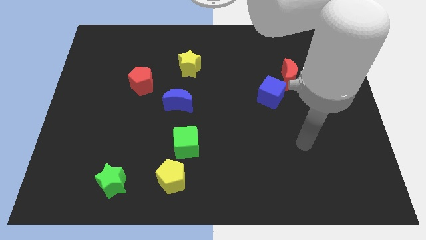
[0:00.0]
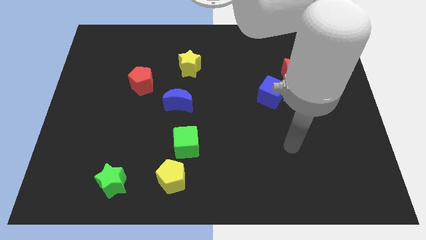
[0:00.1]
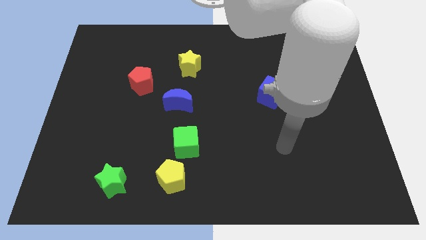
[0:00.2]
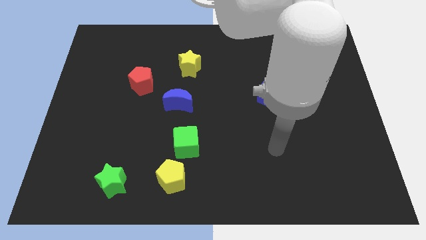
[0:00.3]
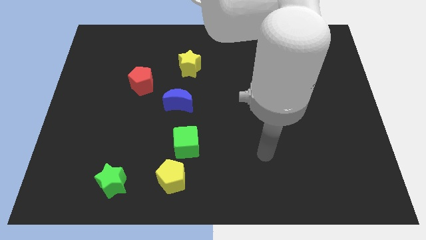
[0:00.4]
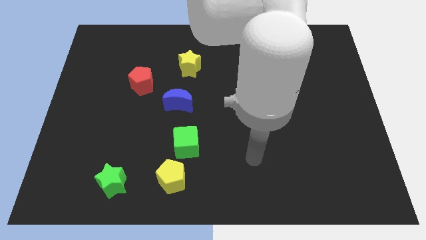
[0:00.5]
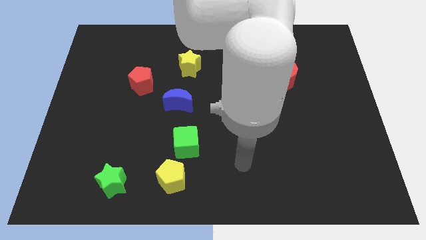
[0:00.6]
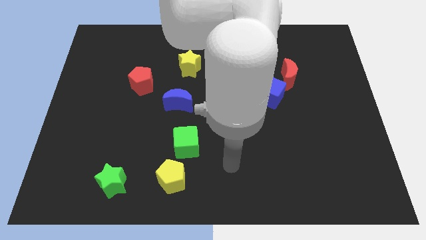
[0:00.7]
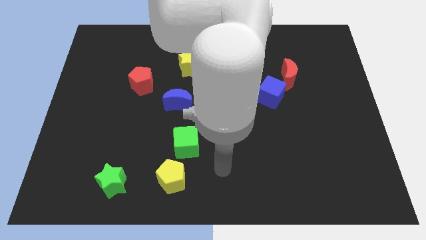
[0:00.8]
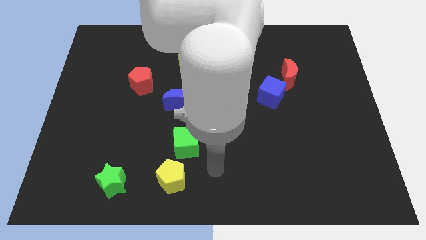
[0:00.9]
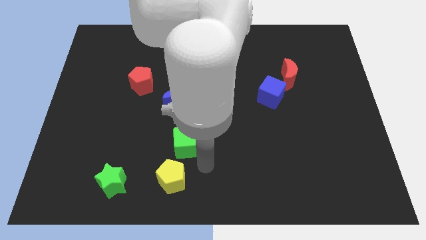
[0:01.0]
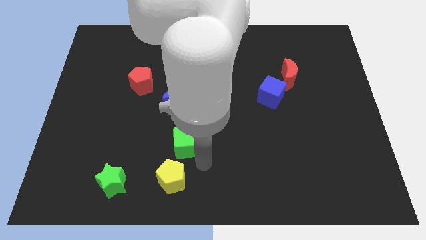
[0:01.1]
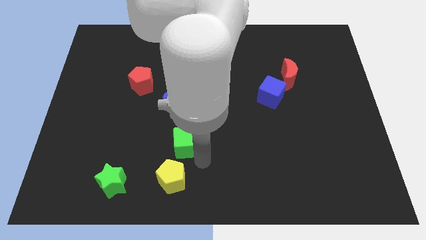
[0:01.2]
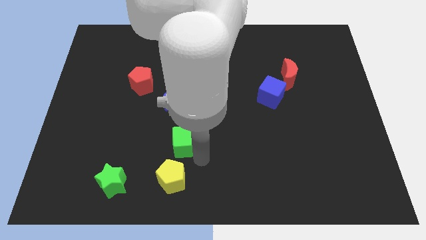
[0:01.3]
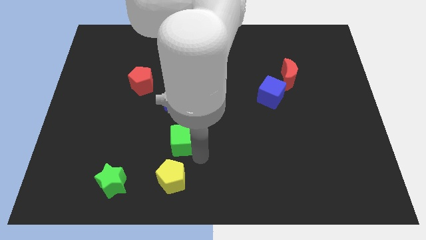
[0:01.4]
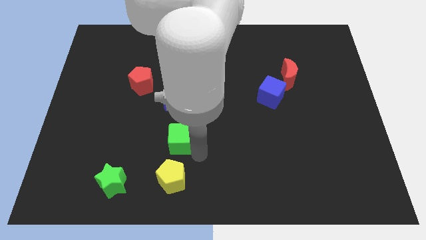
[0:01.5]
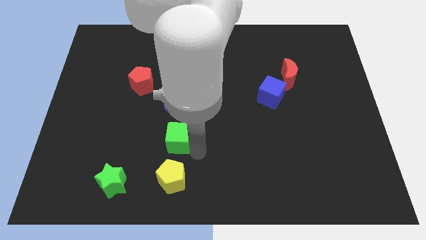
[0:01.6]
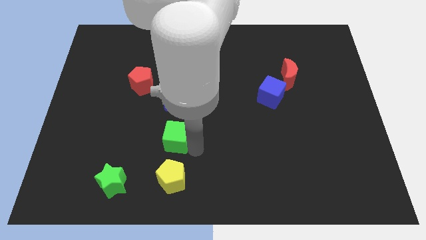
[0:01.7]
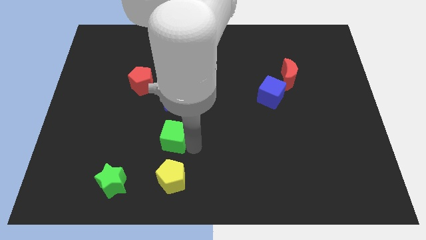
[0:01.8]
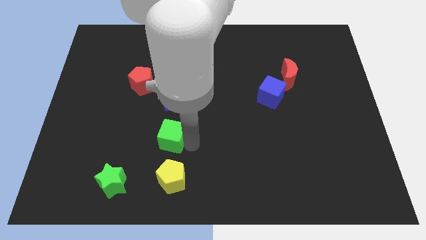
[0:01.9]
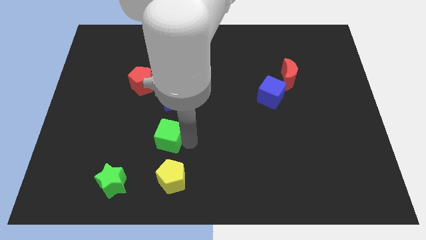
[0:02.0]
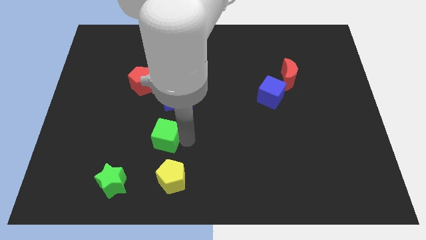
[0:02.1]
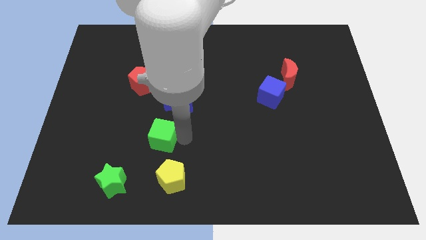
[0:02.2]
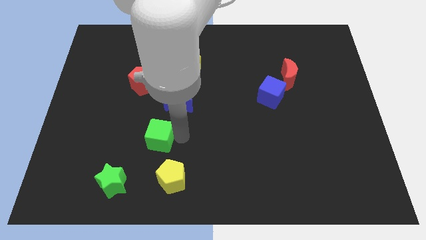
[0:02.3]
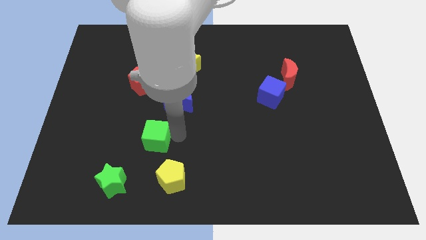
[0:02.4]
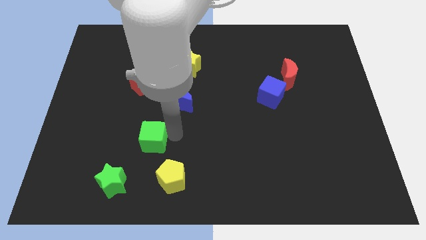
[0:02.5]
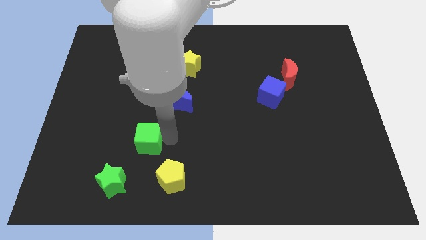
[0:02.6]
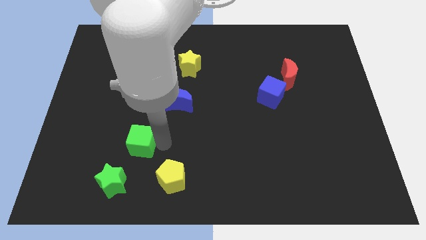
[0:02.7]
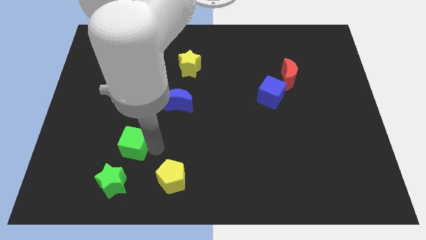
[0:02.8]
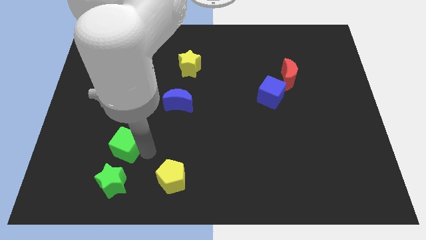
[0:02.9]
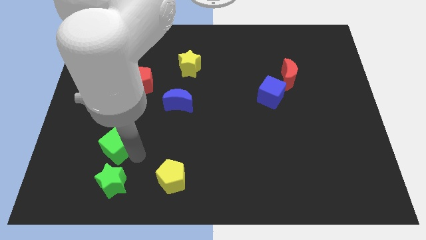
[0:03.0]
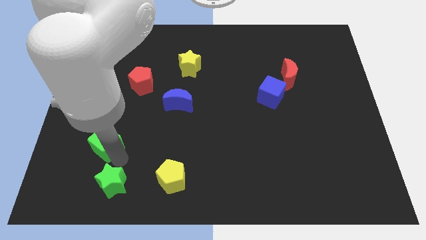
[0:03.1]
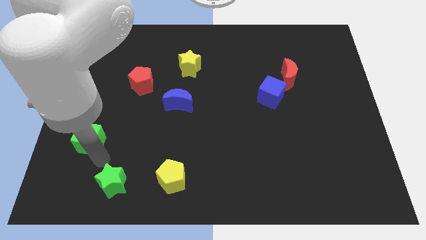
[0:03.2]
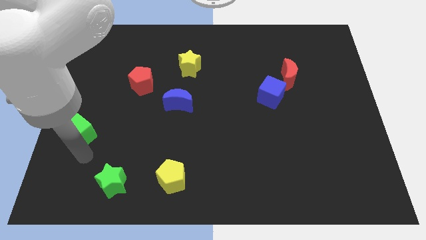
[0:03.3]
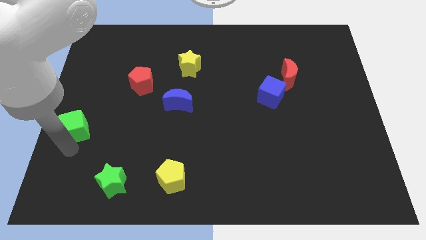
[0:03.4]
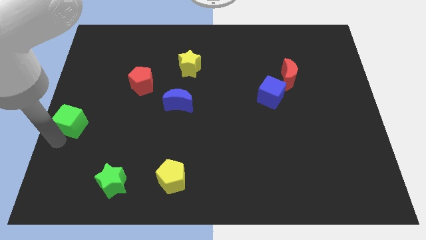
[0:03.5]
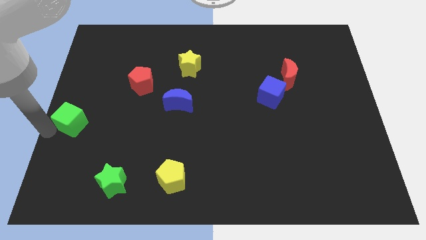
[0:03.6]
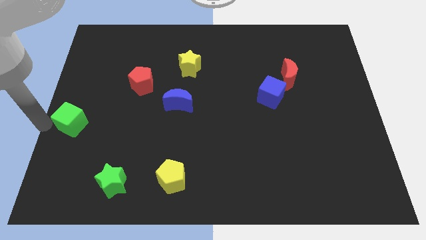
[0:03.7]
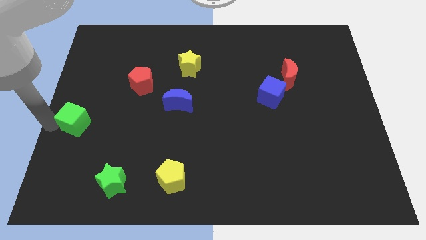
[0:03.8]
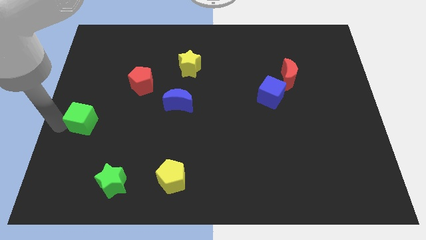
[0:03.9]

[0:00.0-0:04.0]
slightly move the green cube up and then left

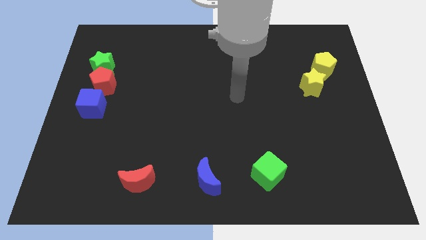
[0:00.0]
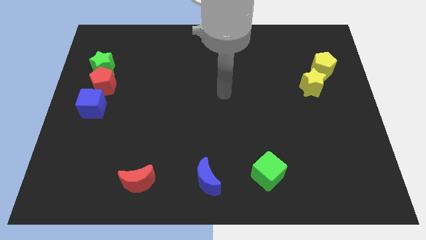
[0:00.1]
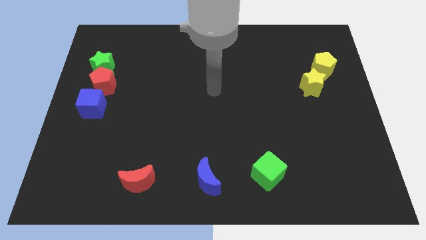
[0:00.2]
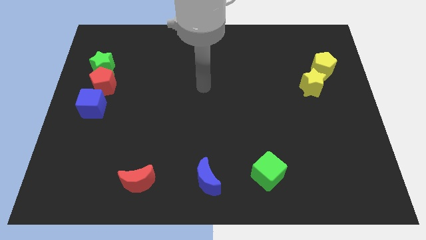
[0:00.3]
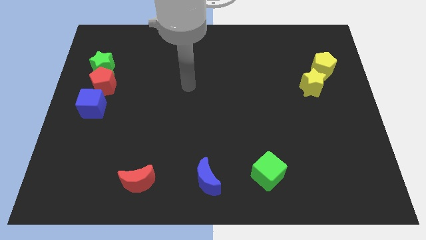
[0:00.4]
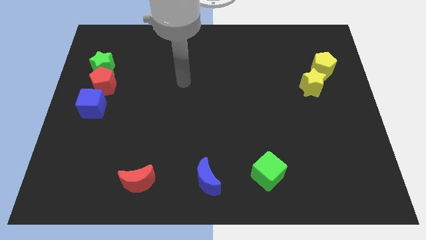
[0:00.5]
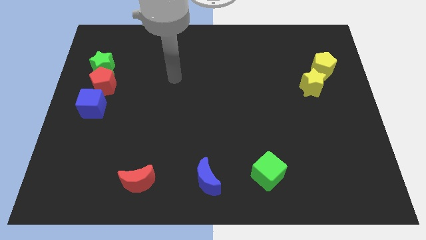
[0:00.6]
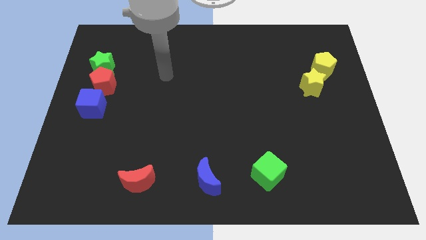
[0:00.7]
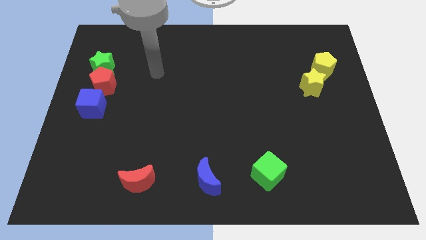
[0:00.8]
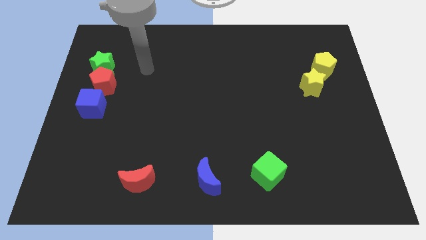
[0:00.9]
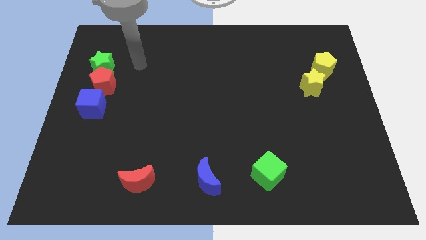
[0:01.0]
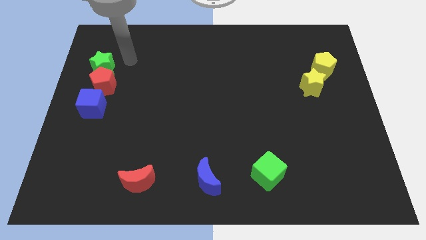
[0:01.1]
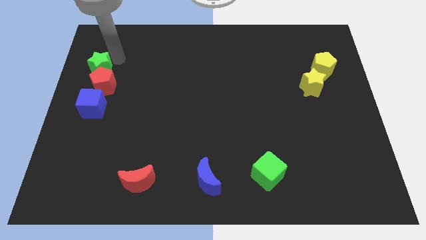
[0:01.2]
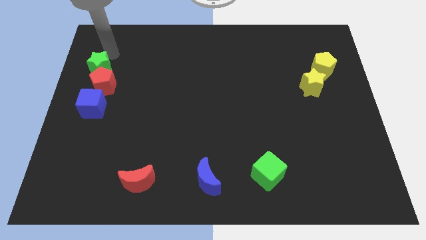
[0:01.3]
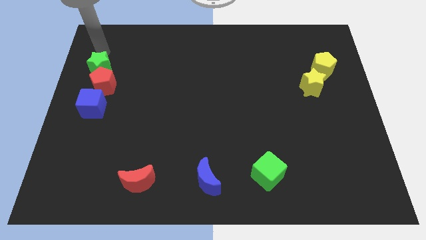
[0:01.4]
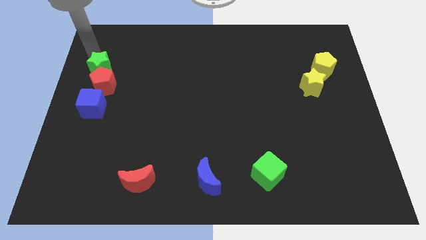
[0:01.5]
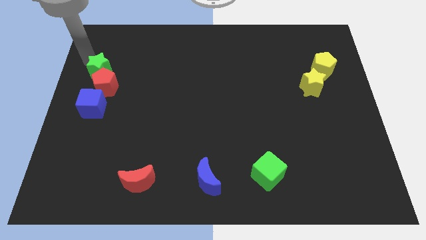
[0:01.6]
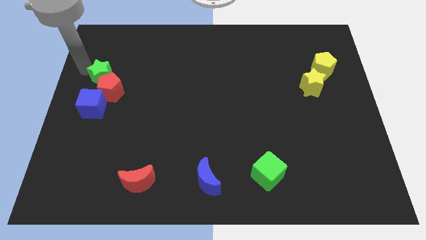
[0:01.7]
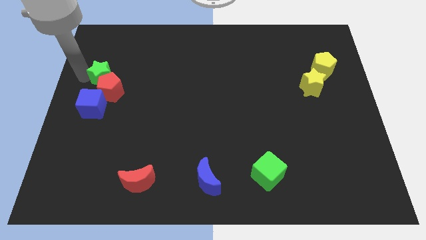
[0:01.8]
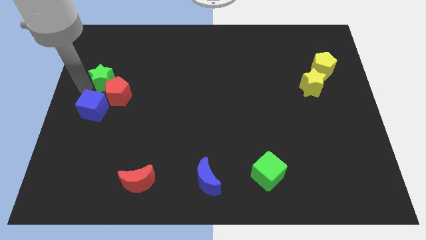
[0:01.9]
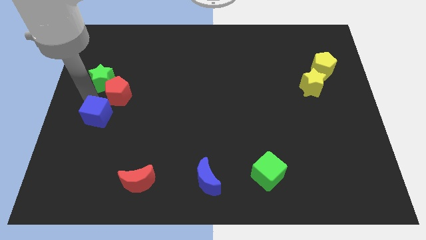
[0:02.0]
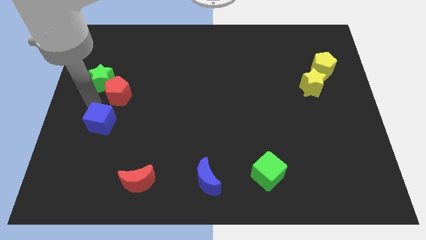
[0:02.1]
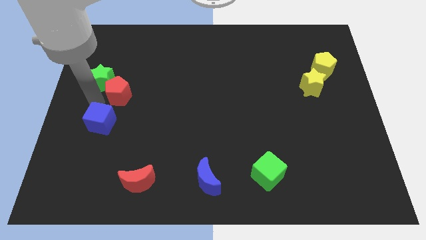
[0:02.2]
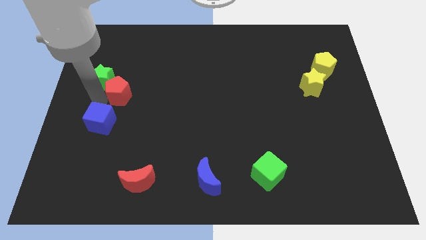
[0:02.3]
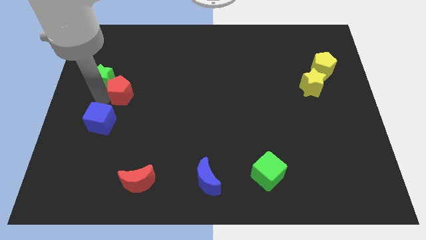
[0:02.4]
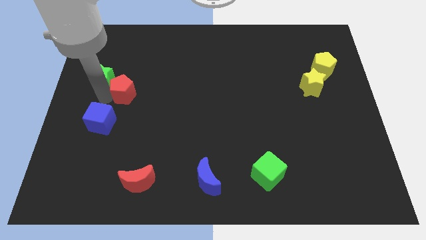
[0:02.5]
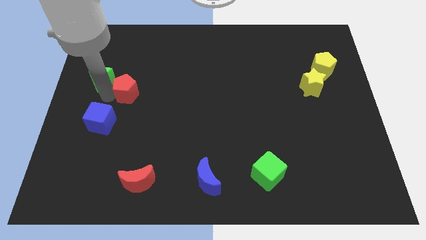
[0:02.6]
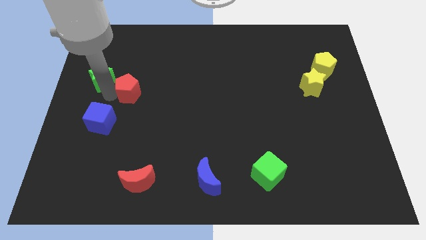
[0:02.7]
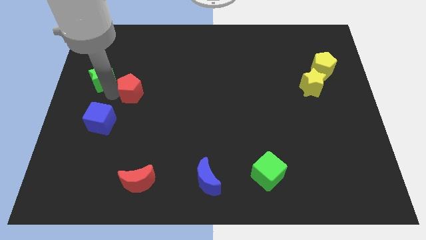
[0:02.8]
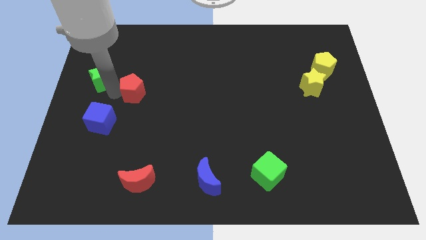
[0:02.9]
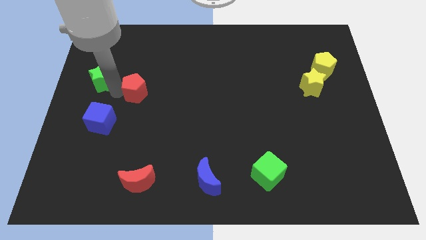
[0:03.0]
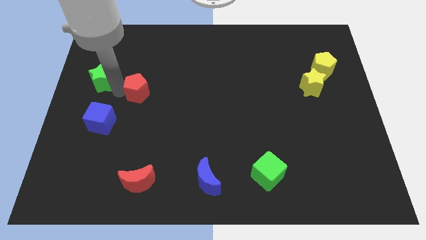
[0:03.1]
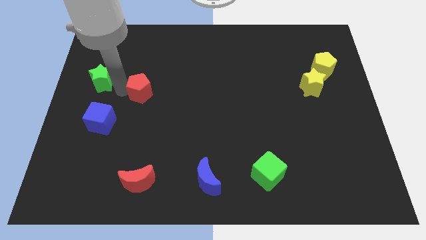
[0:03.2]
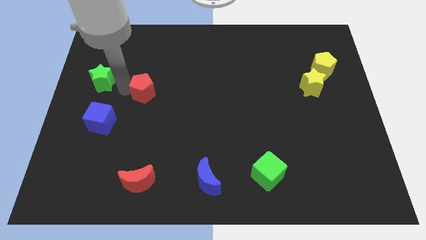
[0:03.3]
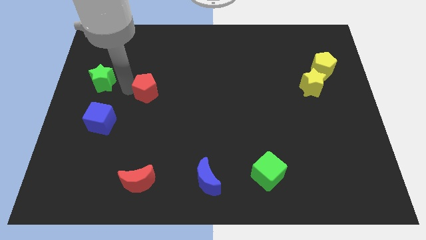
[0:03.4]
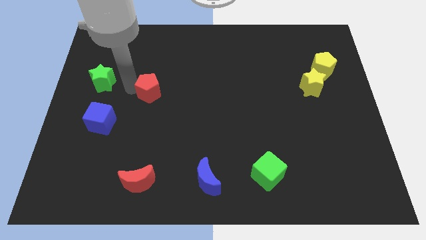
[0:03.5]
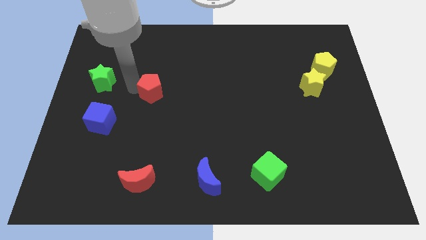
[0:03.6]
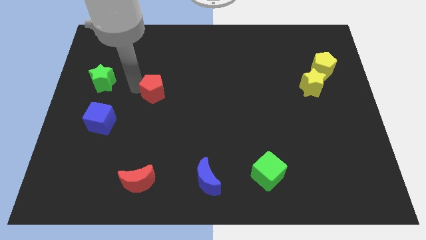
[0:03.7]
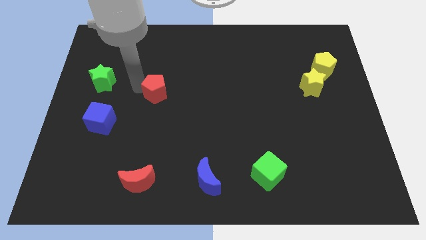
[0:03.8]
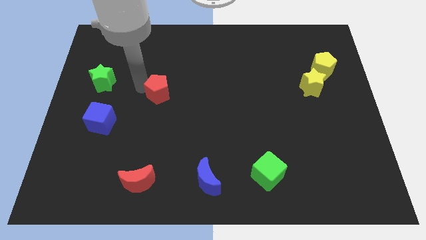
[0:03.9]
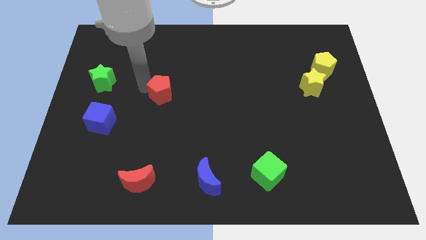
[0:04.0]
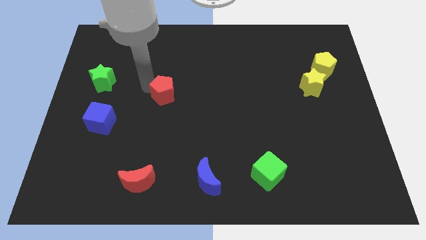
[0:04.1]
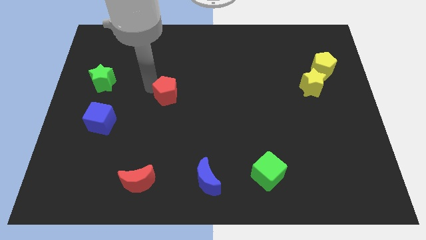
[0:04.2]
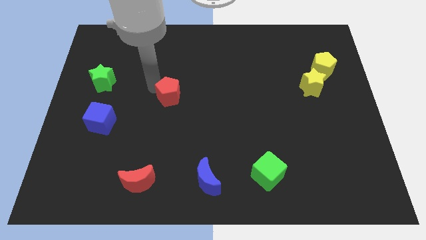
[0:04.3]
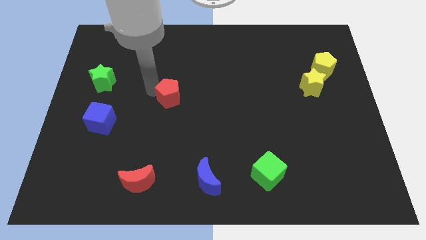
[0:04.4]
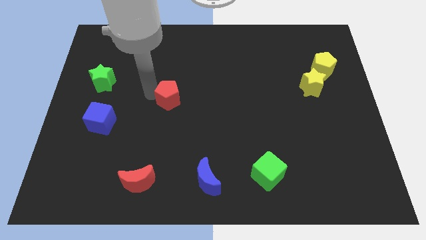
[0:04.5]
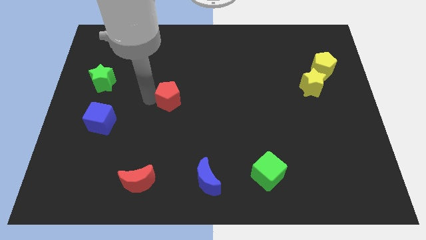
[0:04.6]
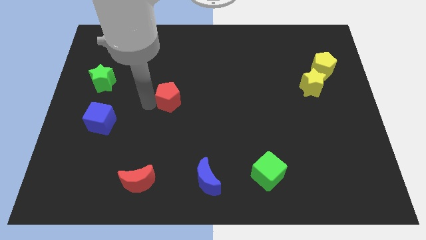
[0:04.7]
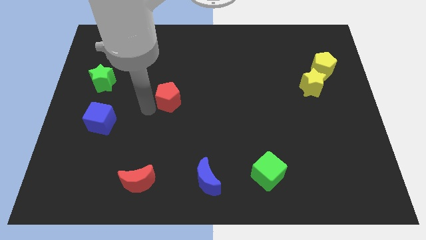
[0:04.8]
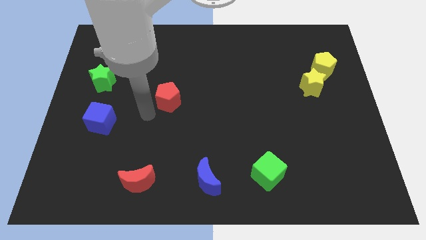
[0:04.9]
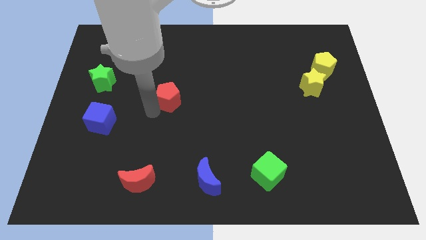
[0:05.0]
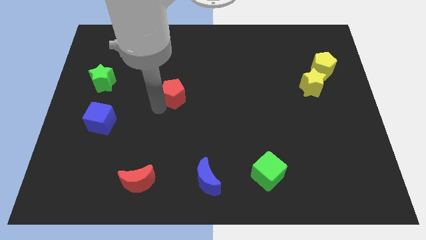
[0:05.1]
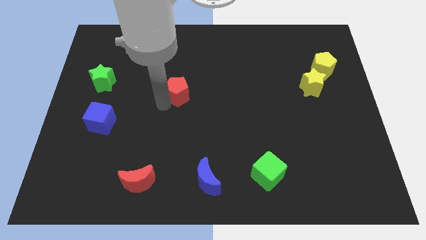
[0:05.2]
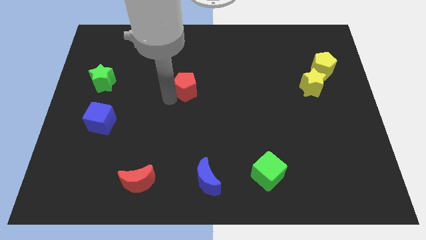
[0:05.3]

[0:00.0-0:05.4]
slide the red pentagon to the right
